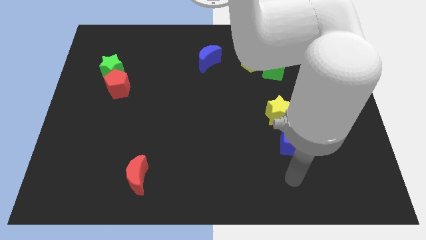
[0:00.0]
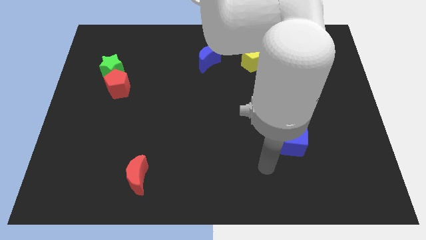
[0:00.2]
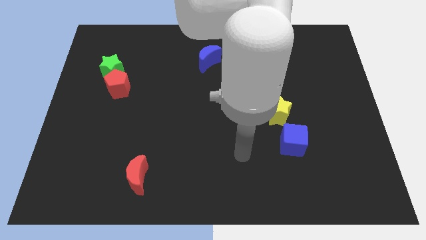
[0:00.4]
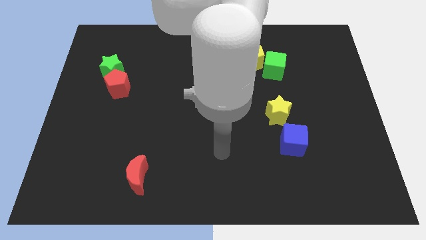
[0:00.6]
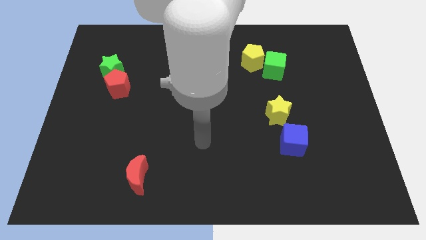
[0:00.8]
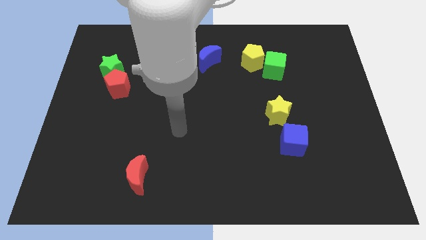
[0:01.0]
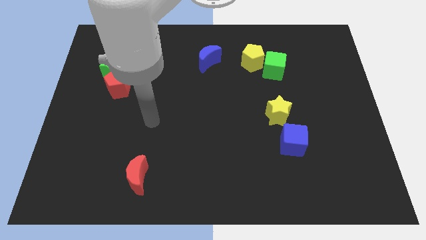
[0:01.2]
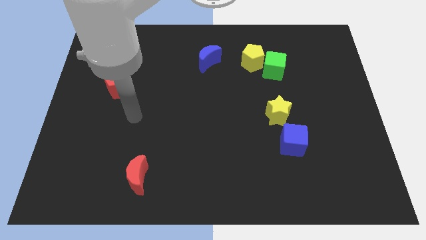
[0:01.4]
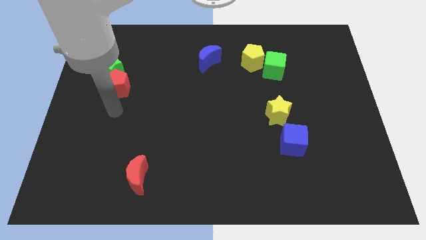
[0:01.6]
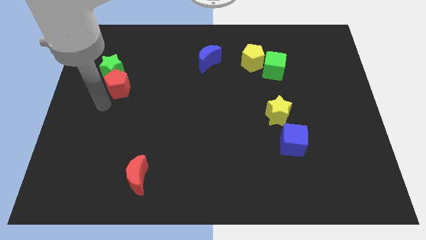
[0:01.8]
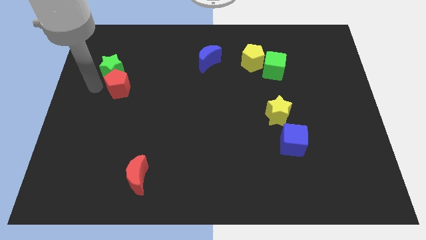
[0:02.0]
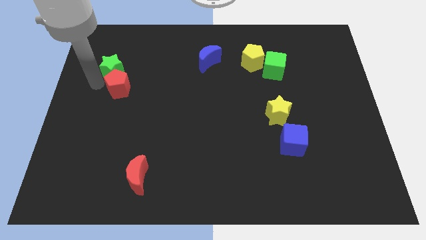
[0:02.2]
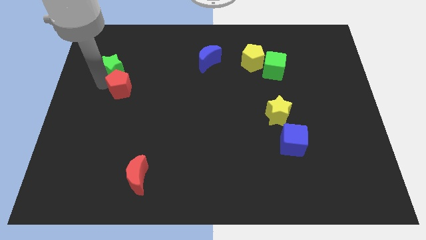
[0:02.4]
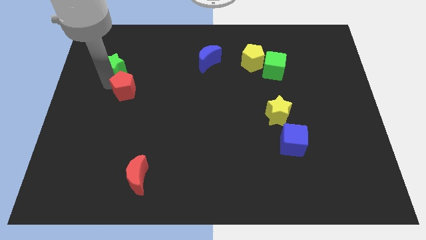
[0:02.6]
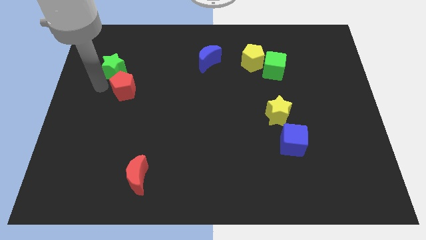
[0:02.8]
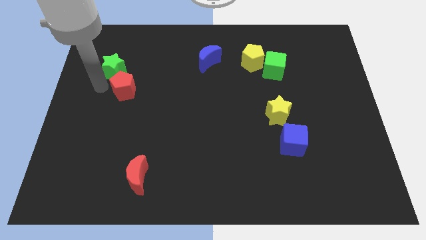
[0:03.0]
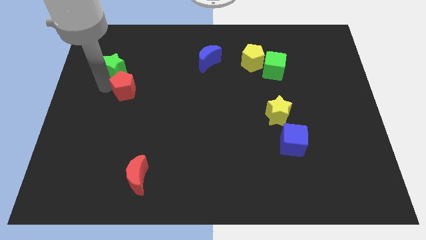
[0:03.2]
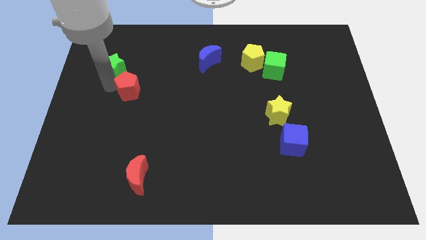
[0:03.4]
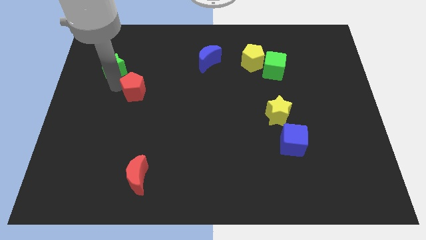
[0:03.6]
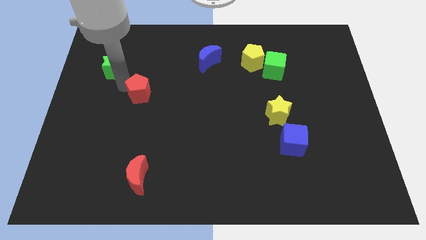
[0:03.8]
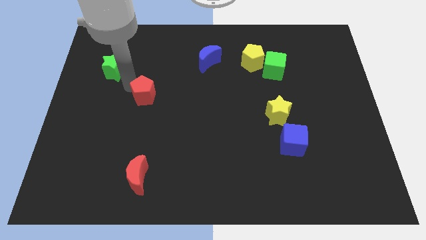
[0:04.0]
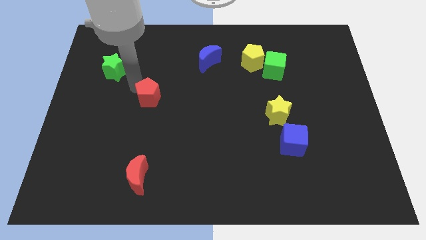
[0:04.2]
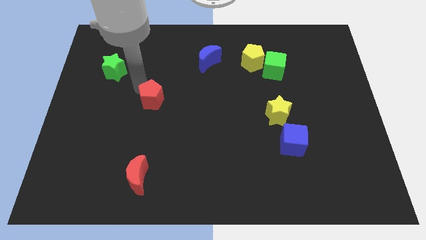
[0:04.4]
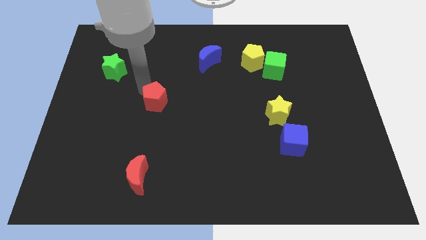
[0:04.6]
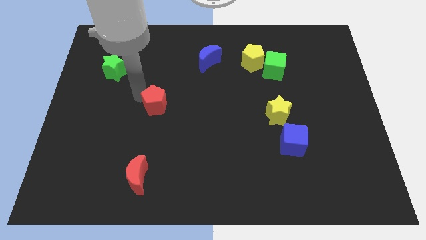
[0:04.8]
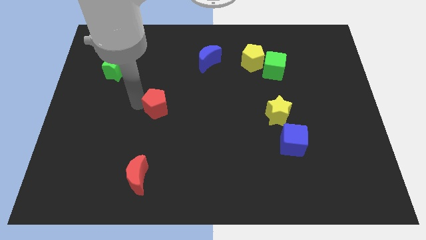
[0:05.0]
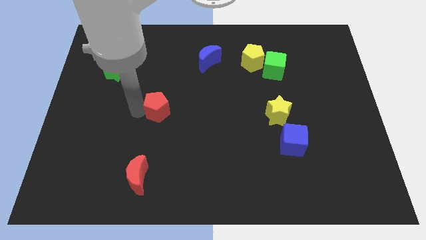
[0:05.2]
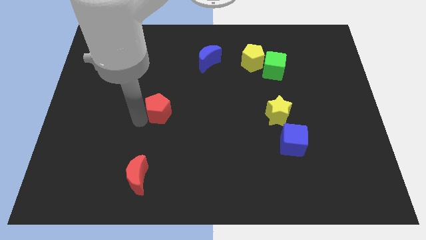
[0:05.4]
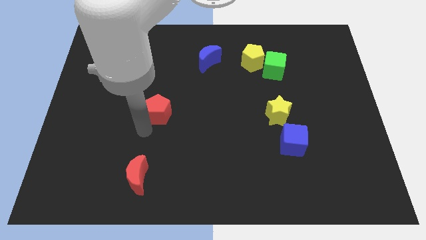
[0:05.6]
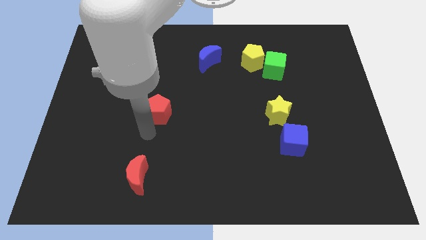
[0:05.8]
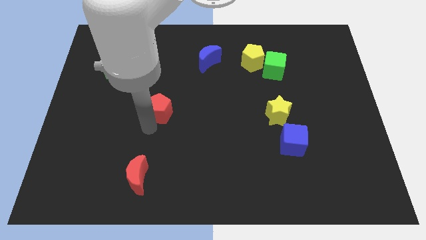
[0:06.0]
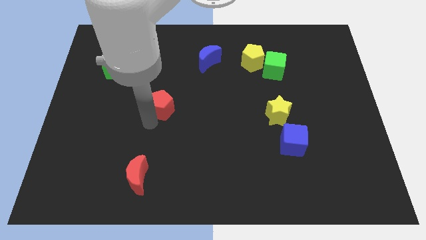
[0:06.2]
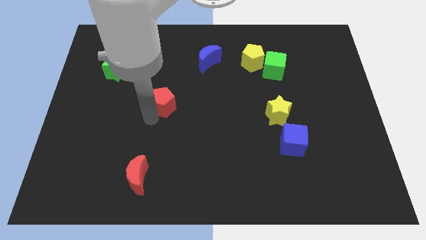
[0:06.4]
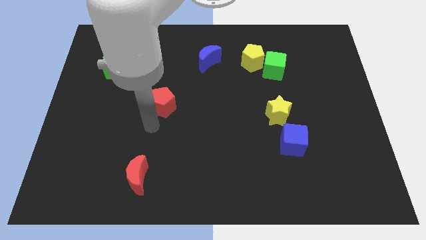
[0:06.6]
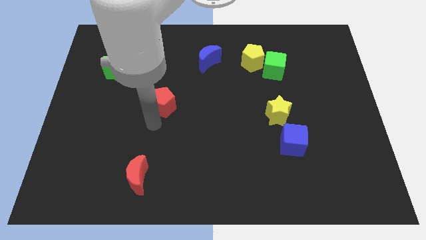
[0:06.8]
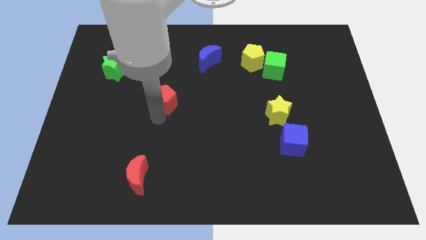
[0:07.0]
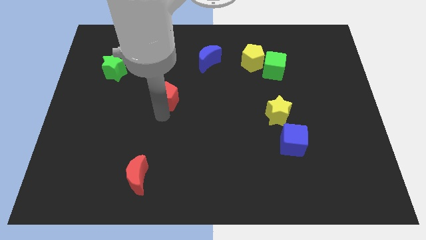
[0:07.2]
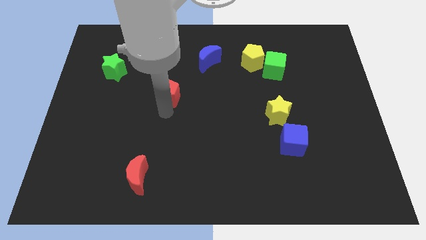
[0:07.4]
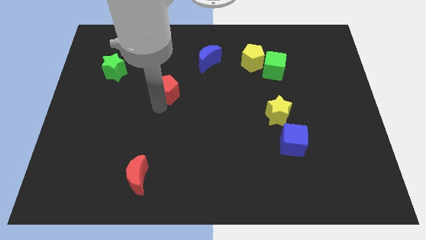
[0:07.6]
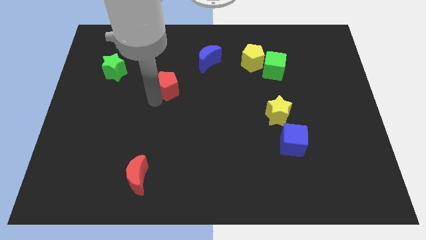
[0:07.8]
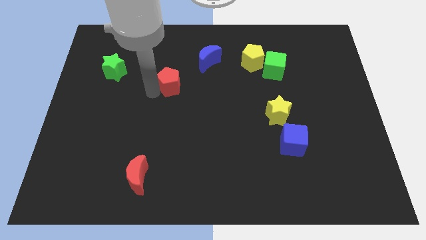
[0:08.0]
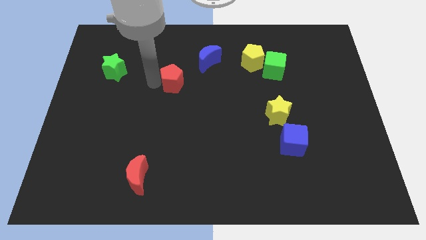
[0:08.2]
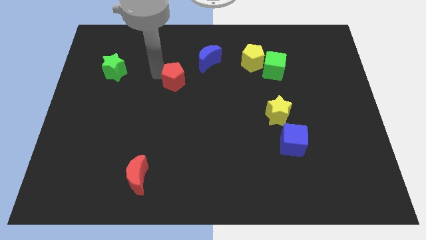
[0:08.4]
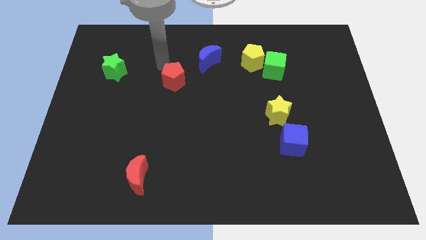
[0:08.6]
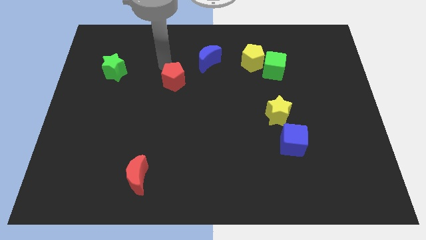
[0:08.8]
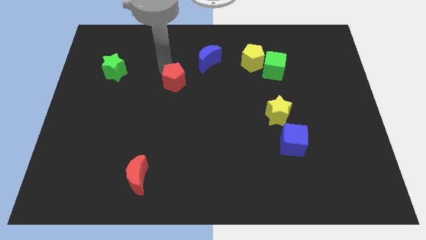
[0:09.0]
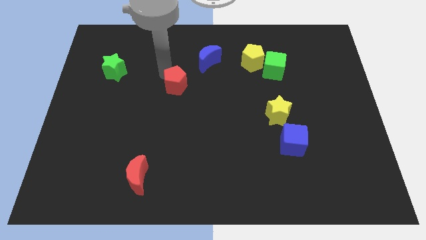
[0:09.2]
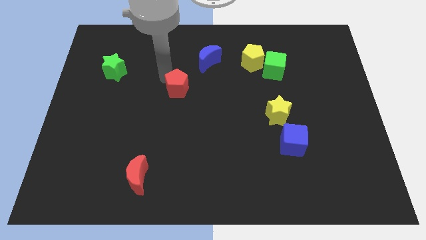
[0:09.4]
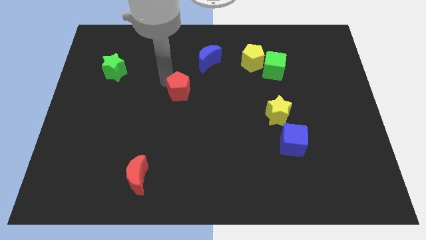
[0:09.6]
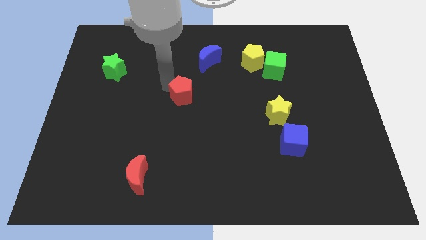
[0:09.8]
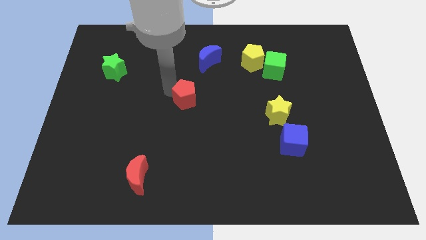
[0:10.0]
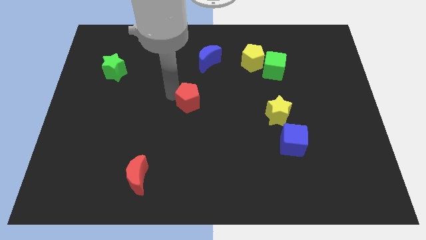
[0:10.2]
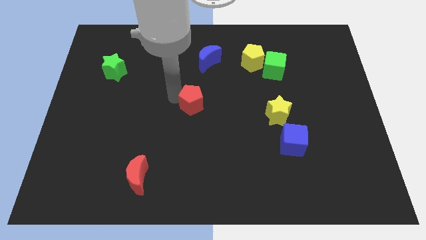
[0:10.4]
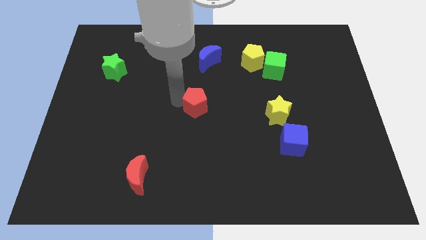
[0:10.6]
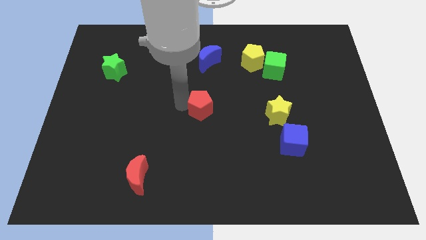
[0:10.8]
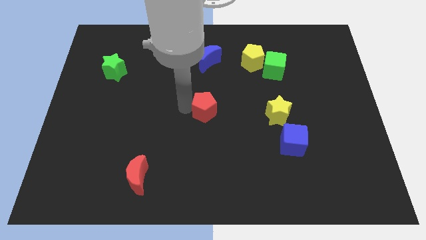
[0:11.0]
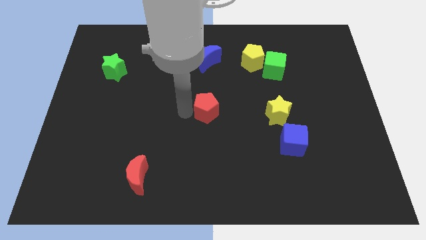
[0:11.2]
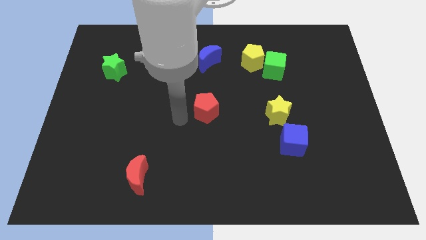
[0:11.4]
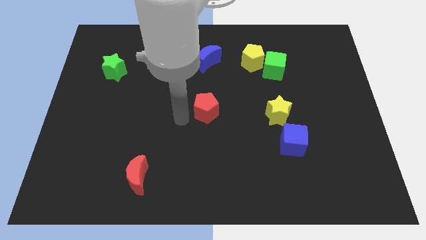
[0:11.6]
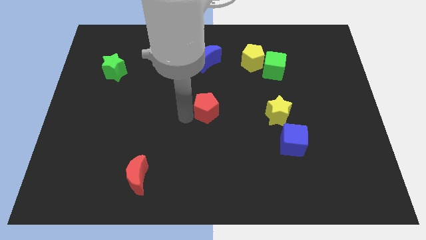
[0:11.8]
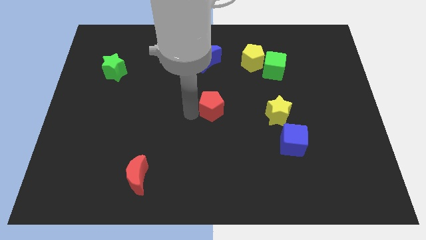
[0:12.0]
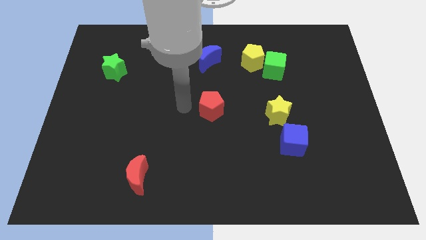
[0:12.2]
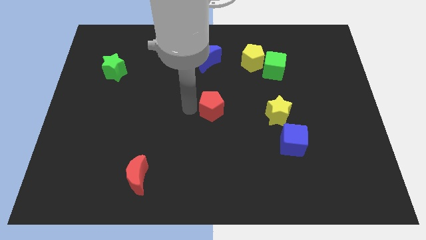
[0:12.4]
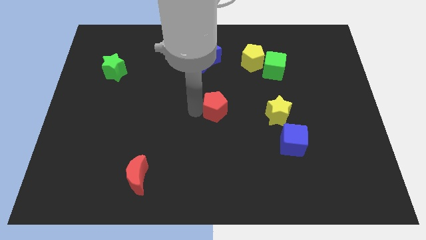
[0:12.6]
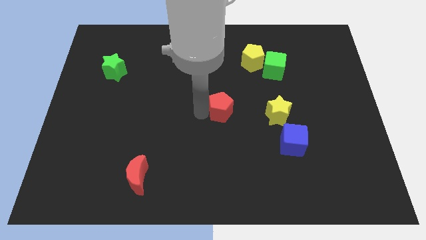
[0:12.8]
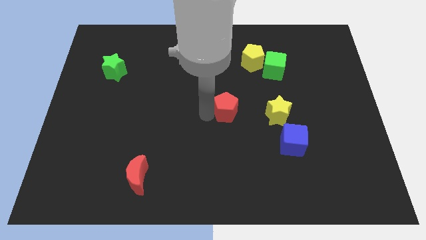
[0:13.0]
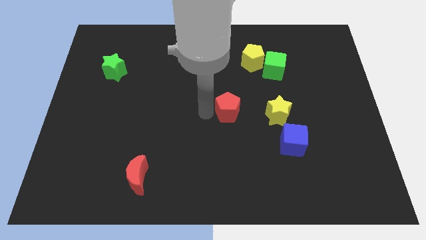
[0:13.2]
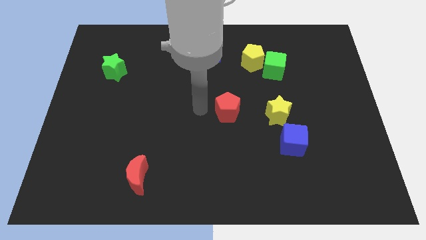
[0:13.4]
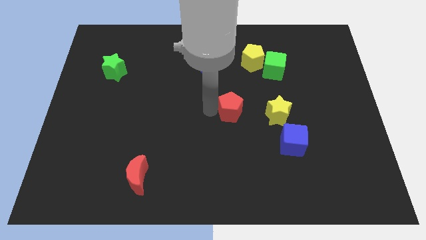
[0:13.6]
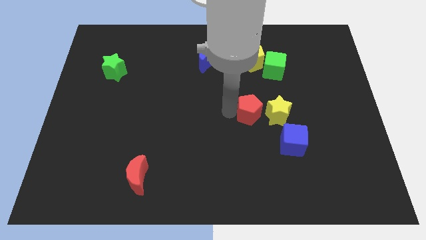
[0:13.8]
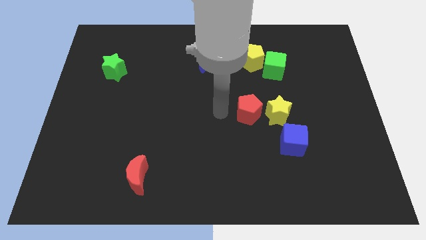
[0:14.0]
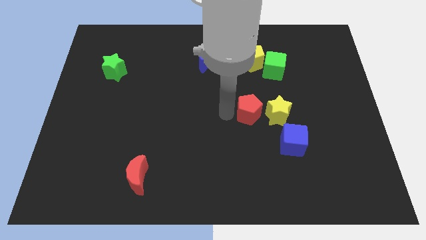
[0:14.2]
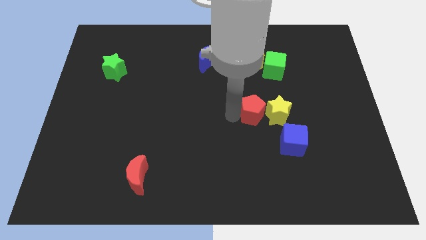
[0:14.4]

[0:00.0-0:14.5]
slide the red pentagon next to the yellow star
